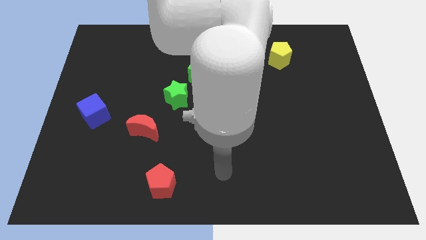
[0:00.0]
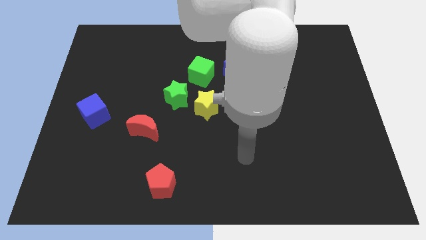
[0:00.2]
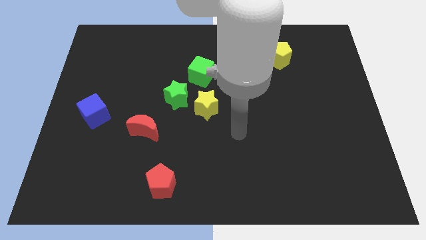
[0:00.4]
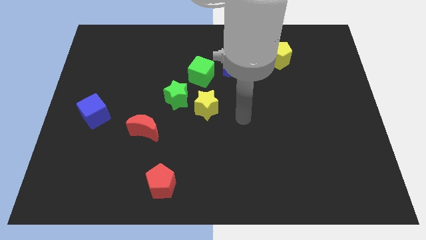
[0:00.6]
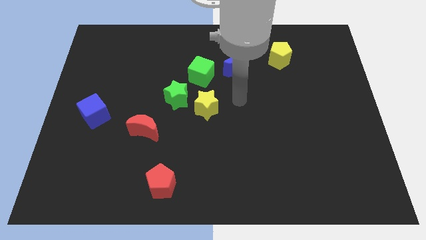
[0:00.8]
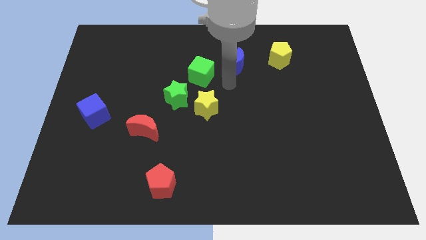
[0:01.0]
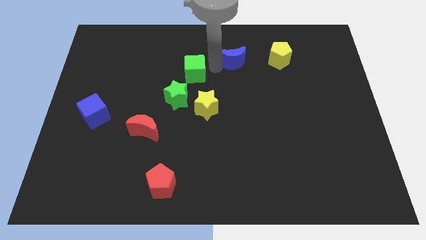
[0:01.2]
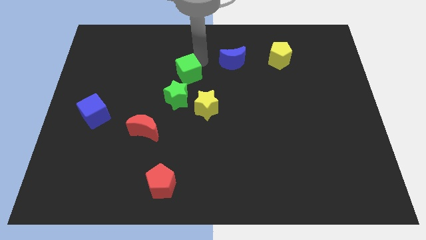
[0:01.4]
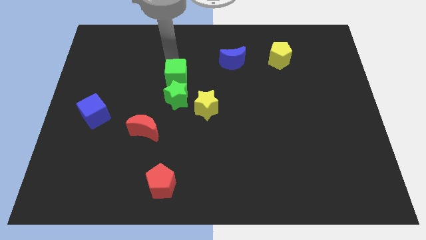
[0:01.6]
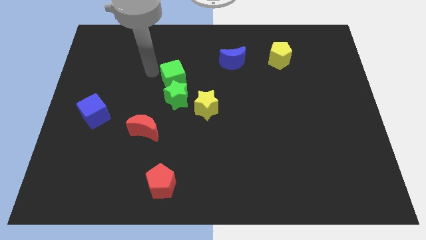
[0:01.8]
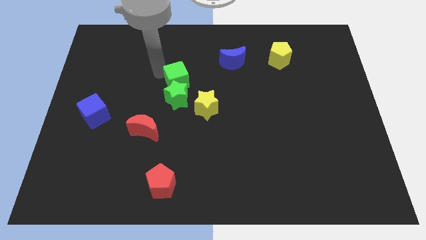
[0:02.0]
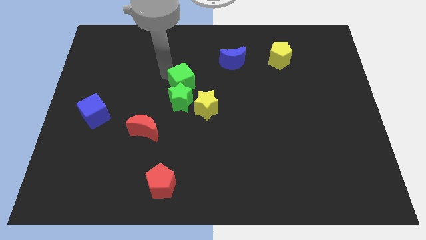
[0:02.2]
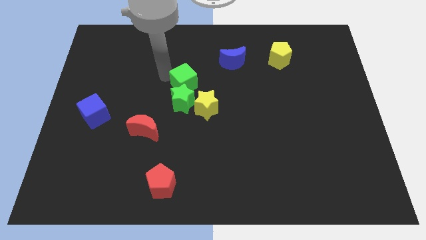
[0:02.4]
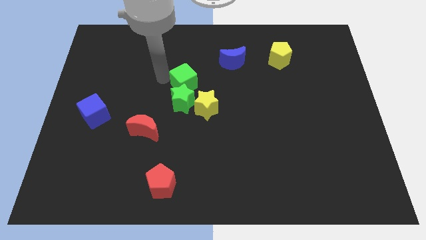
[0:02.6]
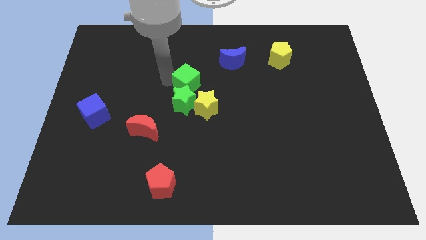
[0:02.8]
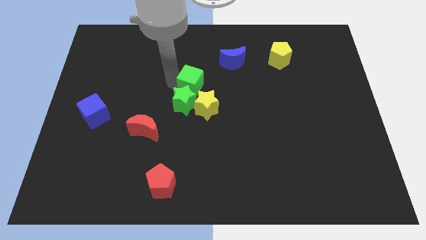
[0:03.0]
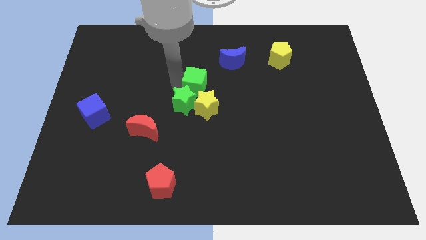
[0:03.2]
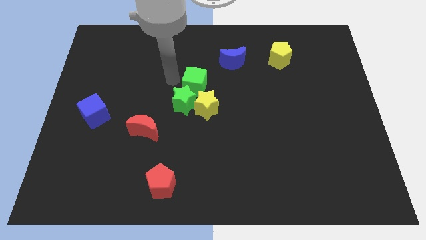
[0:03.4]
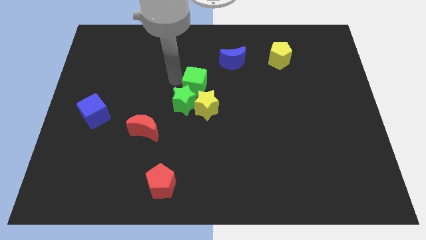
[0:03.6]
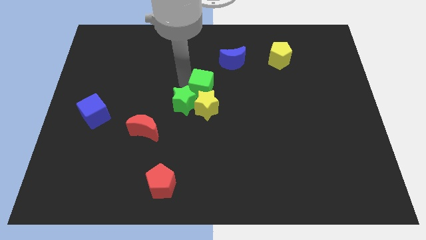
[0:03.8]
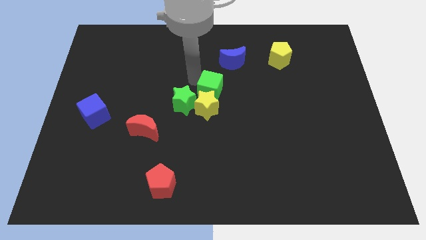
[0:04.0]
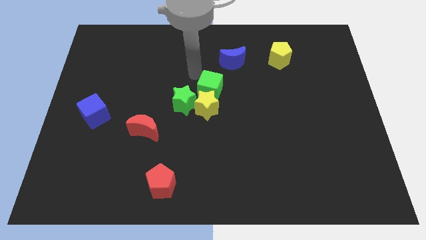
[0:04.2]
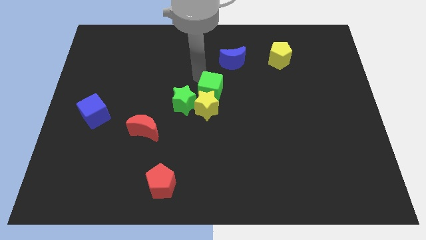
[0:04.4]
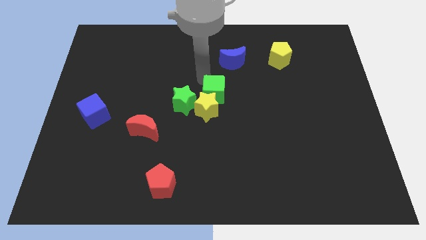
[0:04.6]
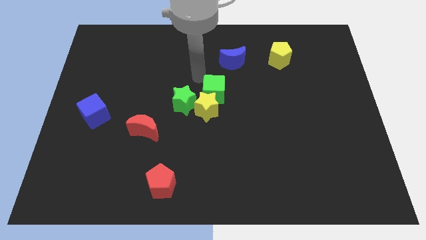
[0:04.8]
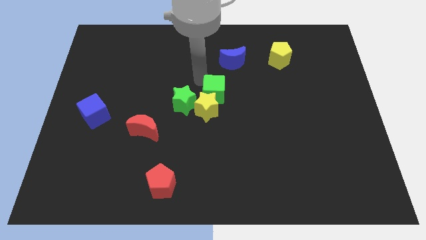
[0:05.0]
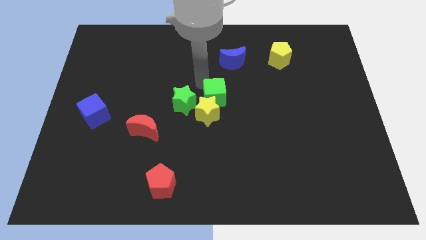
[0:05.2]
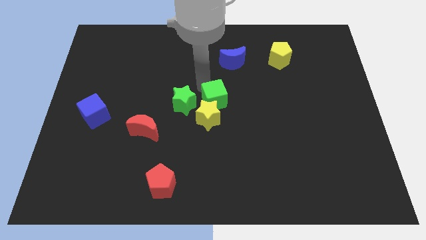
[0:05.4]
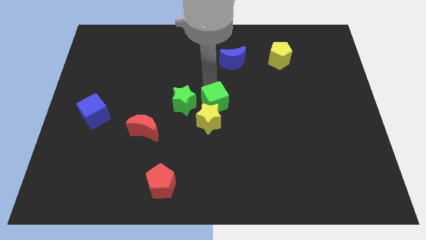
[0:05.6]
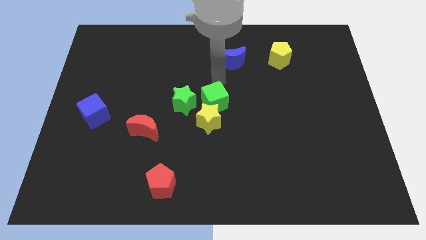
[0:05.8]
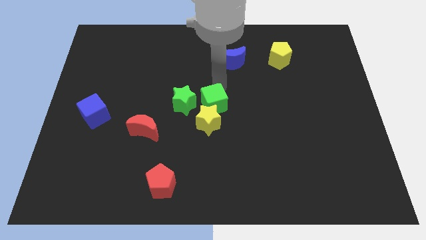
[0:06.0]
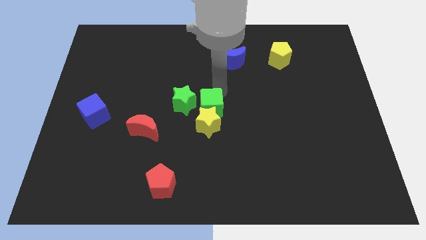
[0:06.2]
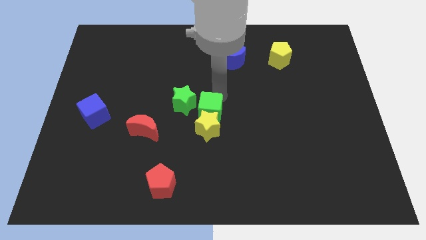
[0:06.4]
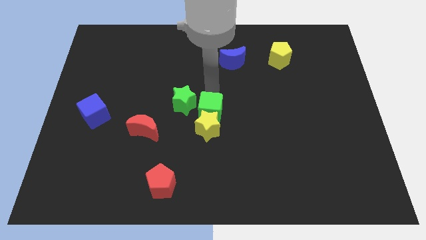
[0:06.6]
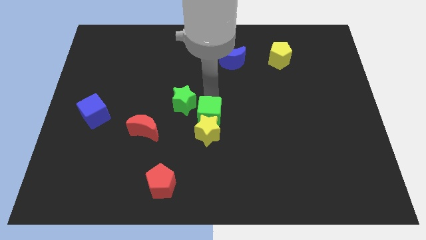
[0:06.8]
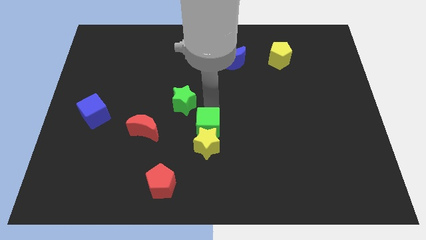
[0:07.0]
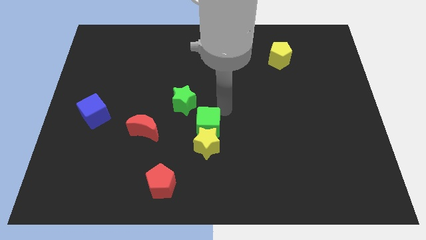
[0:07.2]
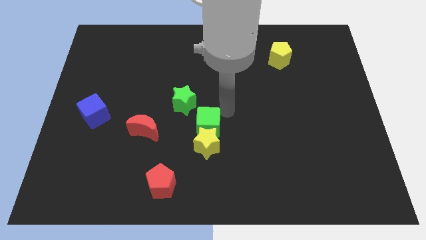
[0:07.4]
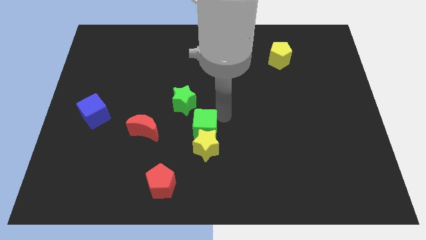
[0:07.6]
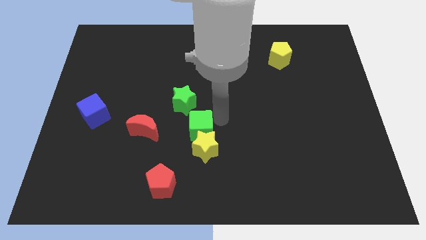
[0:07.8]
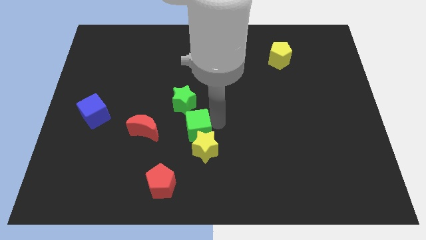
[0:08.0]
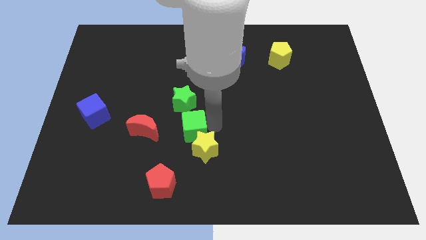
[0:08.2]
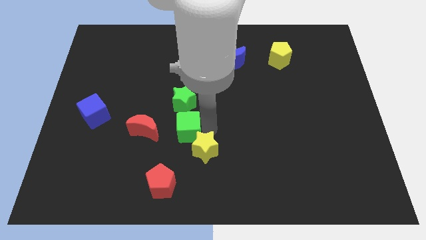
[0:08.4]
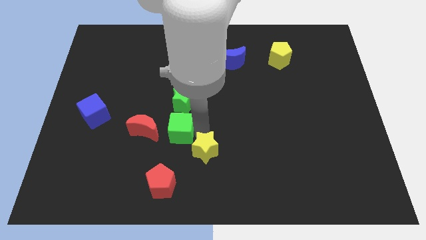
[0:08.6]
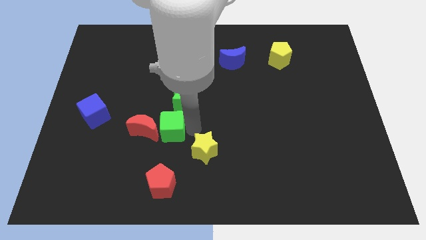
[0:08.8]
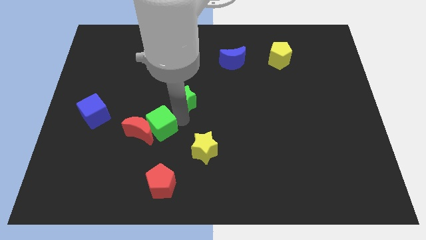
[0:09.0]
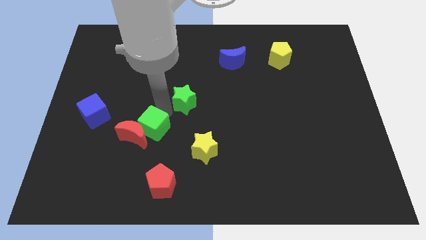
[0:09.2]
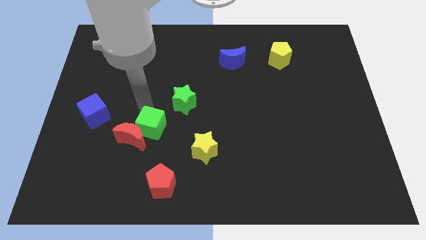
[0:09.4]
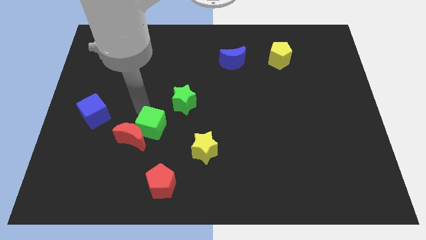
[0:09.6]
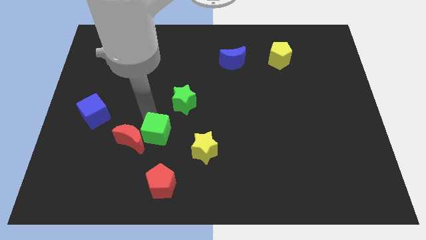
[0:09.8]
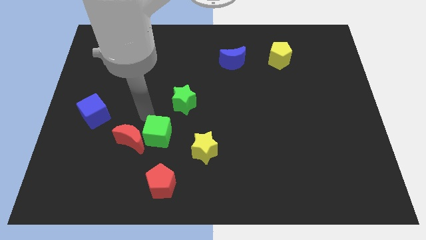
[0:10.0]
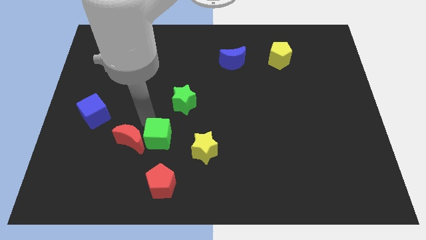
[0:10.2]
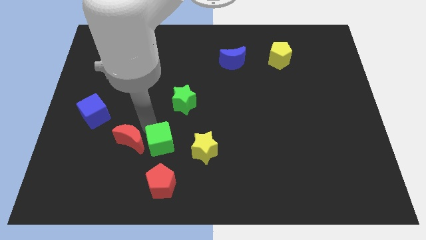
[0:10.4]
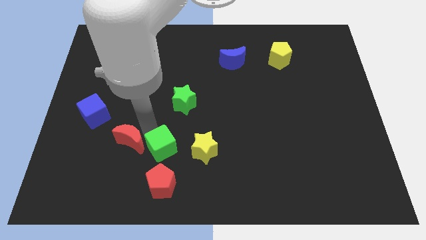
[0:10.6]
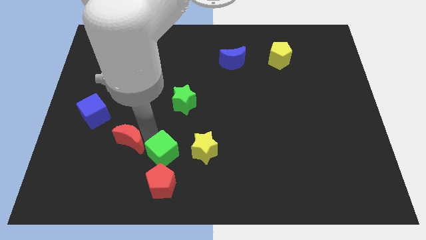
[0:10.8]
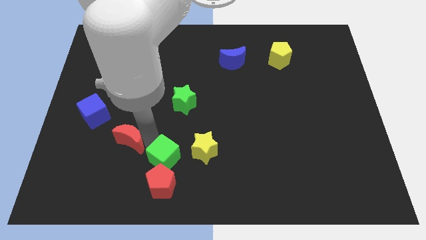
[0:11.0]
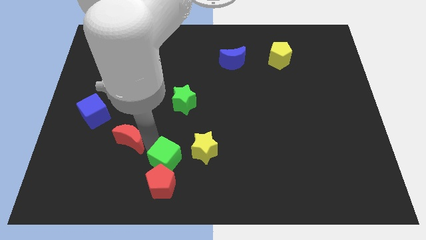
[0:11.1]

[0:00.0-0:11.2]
put the green cube next to the red pentagon

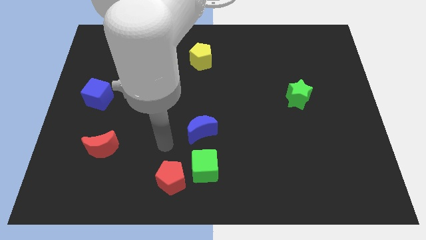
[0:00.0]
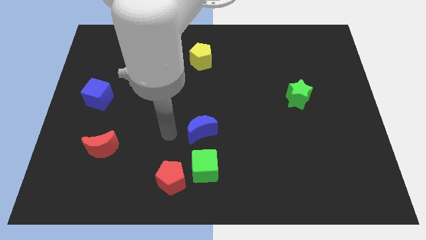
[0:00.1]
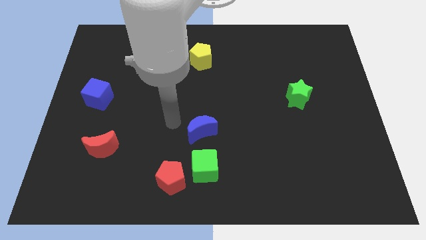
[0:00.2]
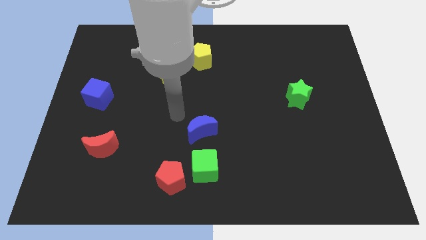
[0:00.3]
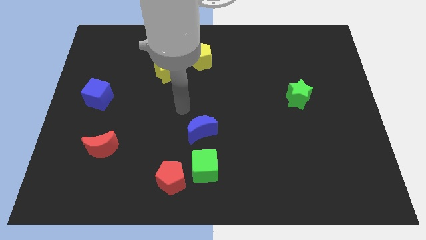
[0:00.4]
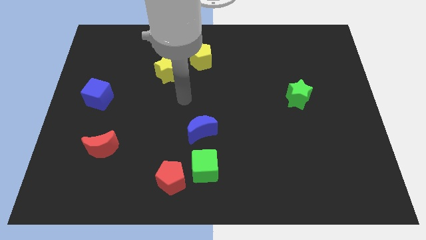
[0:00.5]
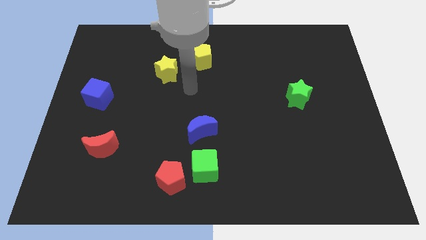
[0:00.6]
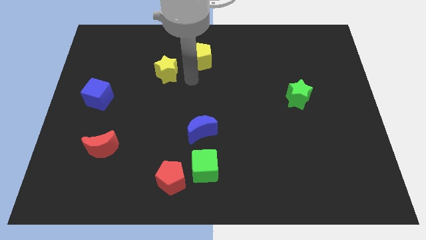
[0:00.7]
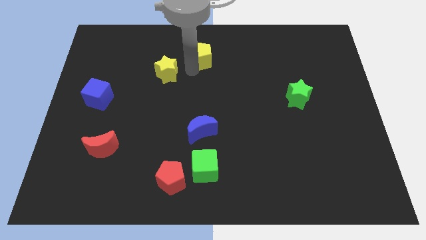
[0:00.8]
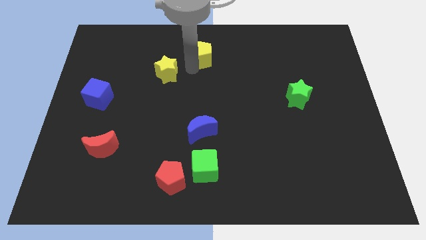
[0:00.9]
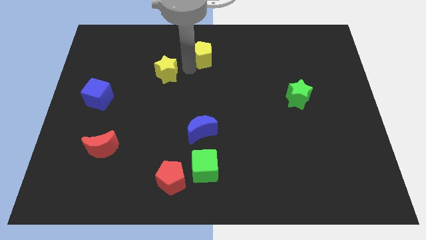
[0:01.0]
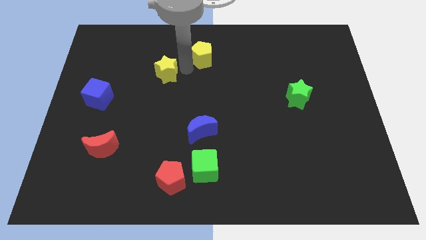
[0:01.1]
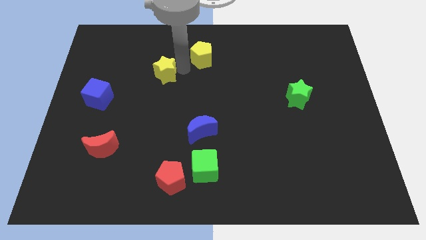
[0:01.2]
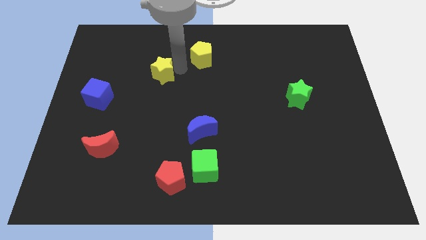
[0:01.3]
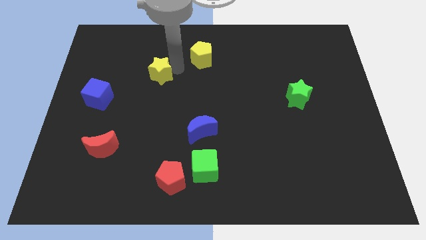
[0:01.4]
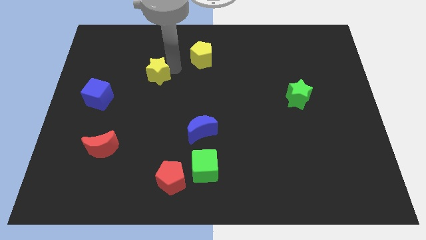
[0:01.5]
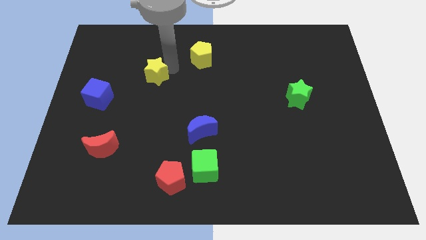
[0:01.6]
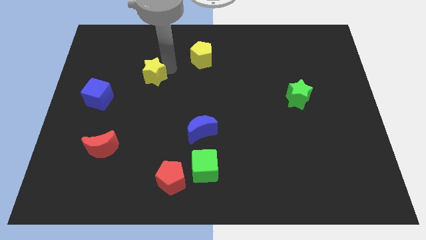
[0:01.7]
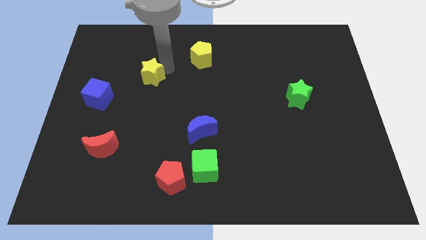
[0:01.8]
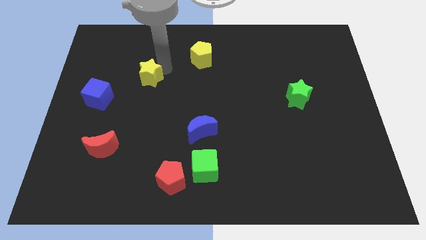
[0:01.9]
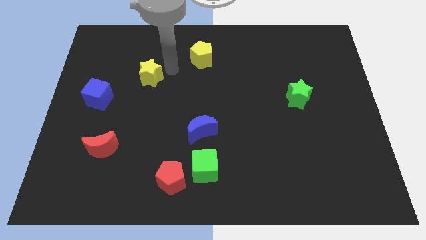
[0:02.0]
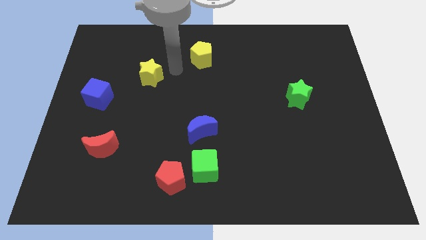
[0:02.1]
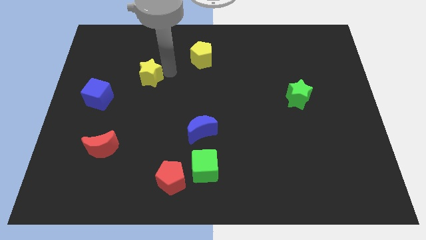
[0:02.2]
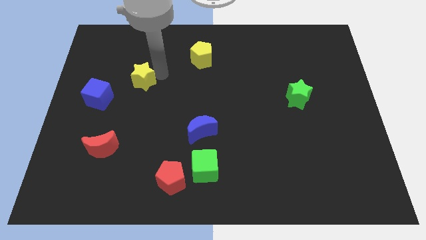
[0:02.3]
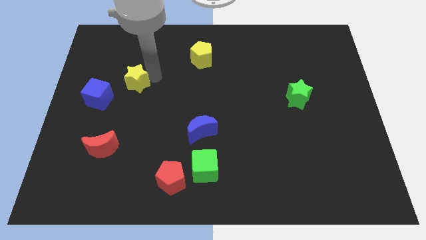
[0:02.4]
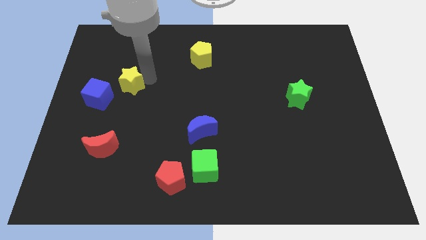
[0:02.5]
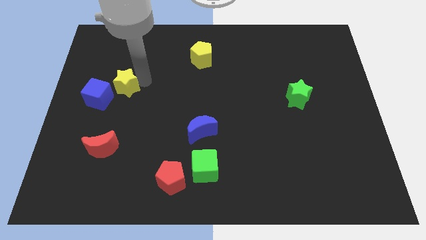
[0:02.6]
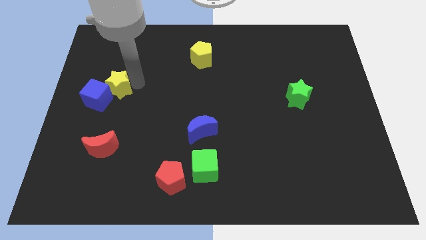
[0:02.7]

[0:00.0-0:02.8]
put the yellow star next to the blue cube
